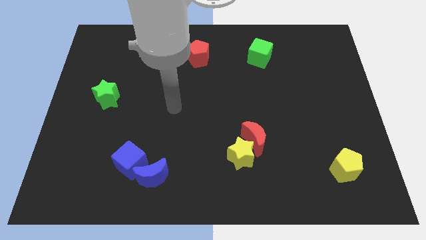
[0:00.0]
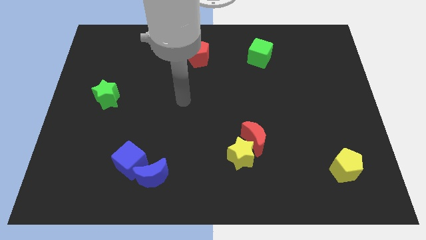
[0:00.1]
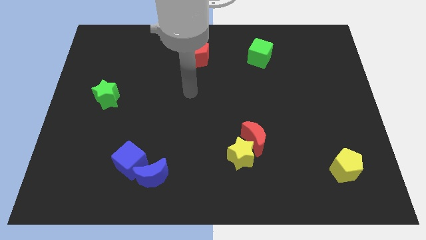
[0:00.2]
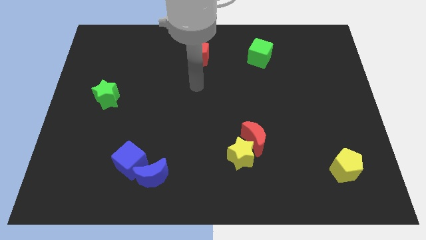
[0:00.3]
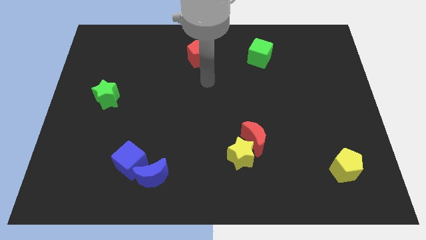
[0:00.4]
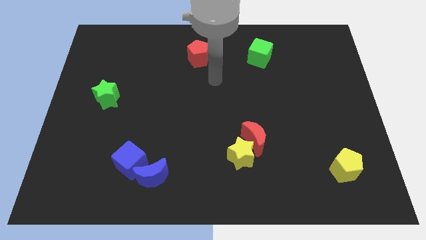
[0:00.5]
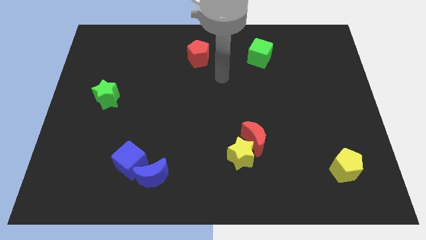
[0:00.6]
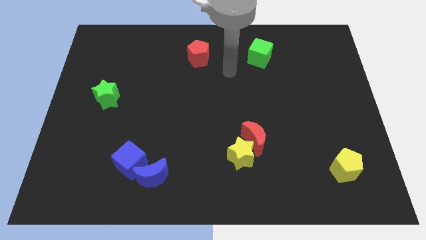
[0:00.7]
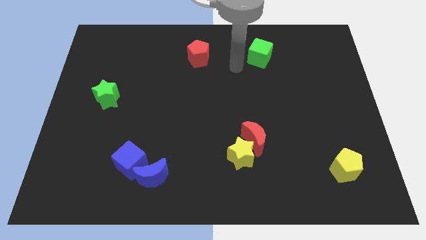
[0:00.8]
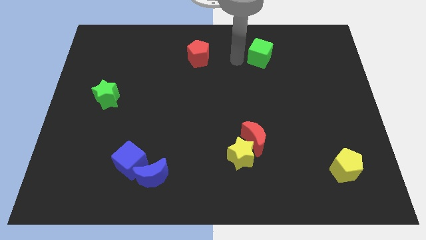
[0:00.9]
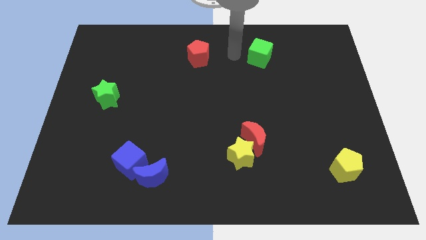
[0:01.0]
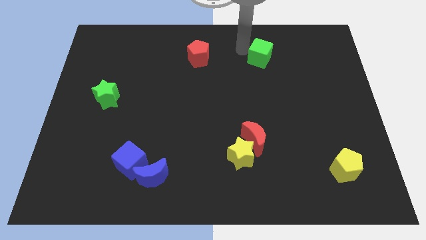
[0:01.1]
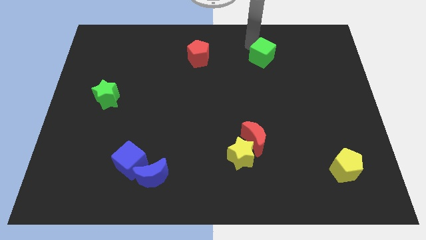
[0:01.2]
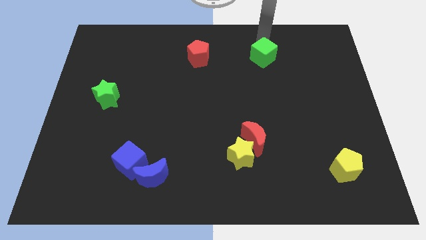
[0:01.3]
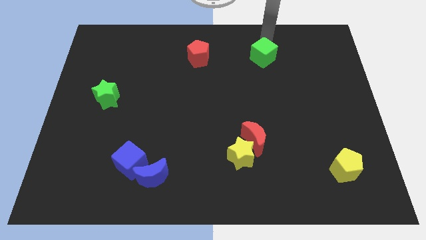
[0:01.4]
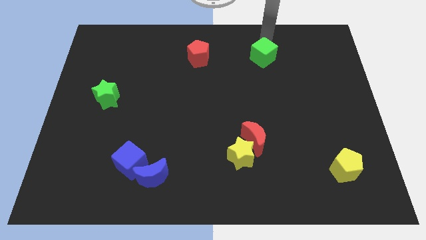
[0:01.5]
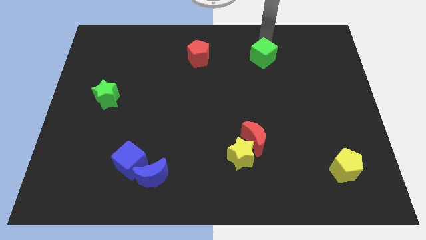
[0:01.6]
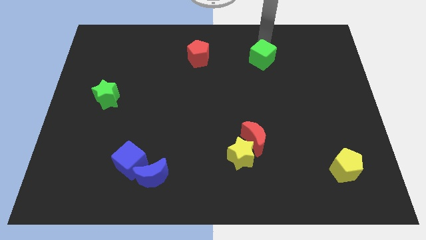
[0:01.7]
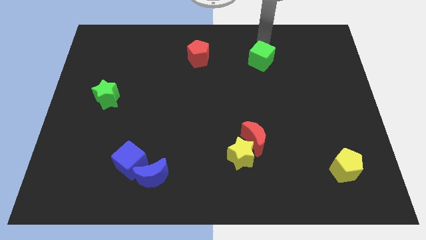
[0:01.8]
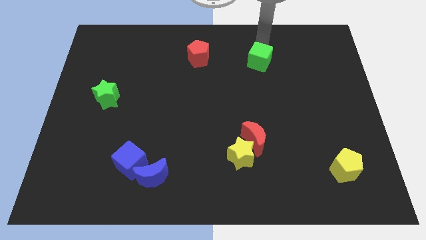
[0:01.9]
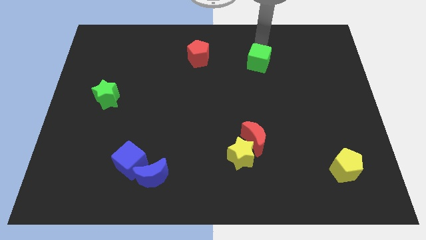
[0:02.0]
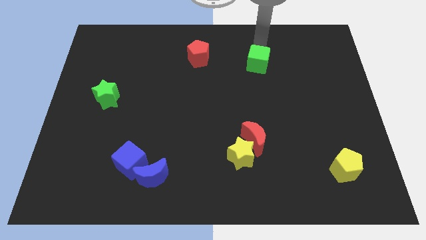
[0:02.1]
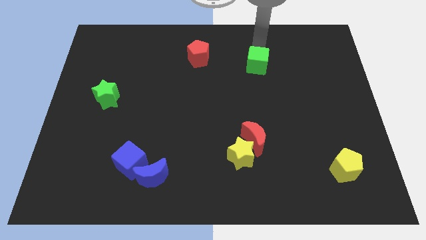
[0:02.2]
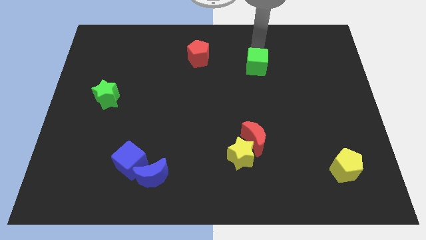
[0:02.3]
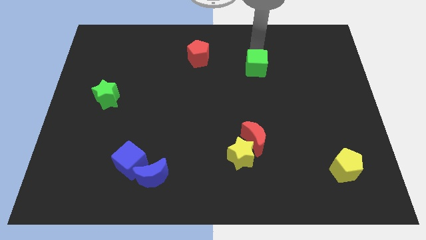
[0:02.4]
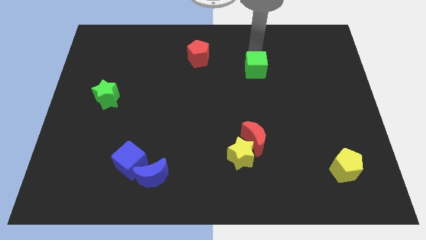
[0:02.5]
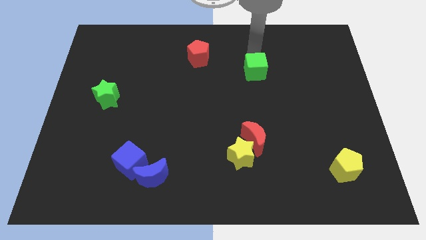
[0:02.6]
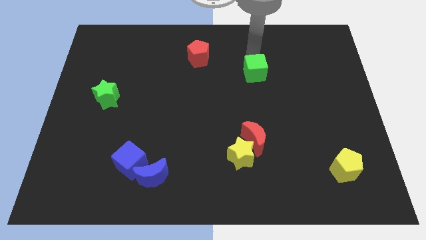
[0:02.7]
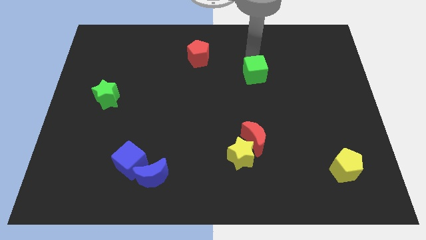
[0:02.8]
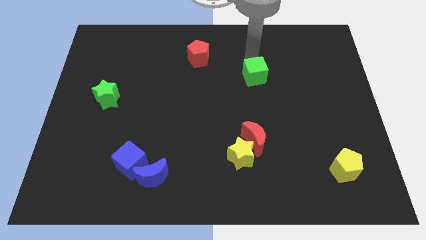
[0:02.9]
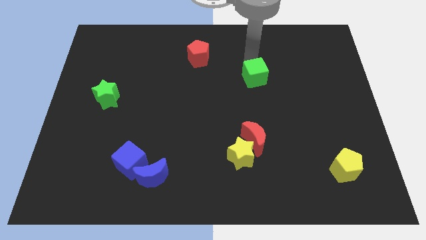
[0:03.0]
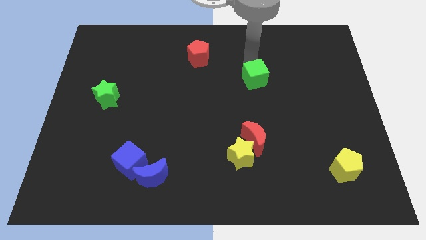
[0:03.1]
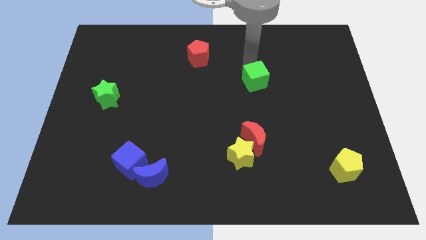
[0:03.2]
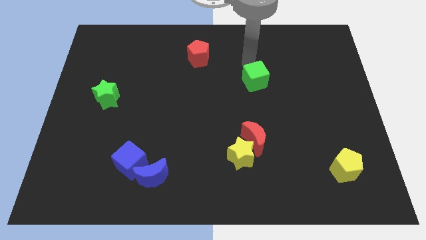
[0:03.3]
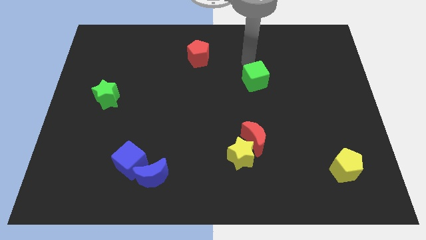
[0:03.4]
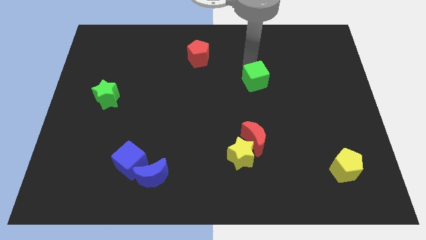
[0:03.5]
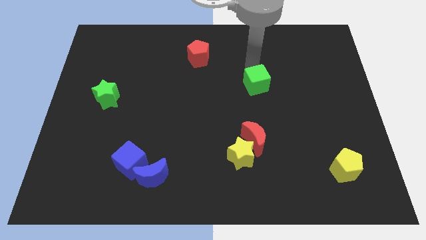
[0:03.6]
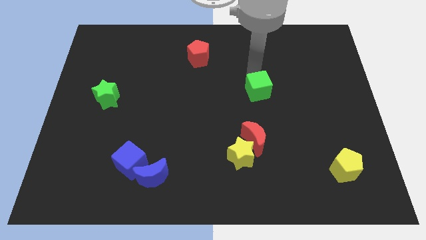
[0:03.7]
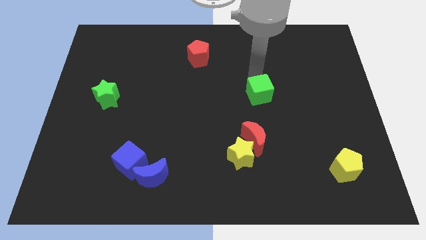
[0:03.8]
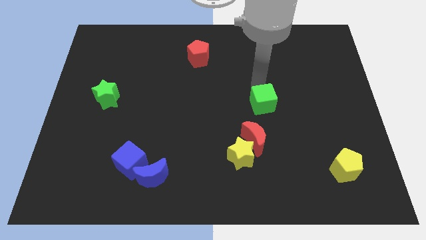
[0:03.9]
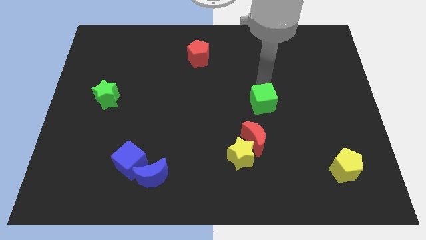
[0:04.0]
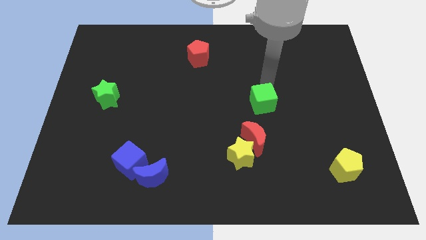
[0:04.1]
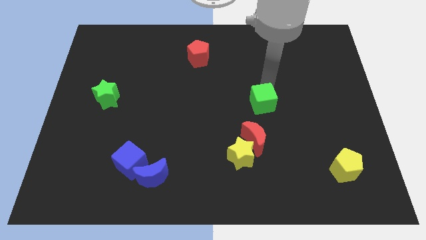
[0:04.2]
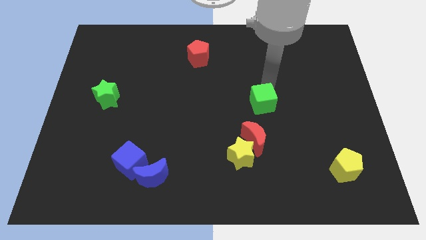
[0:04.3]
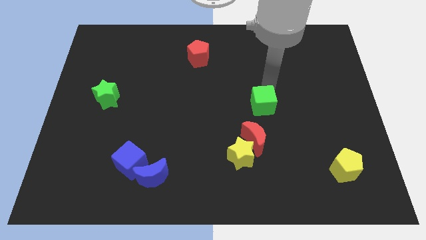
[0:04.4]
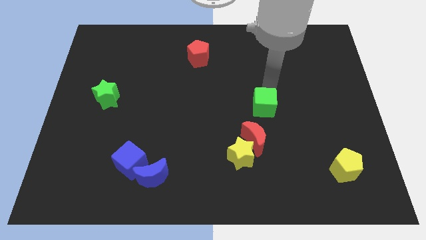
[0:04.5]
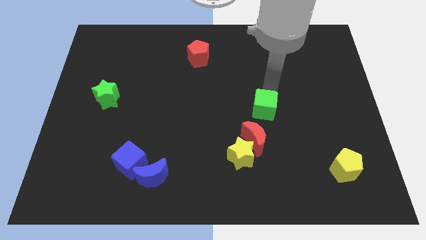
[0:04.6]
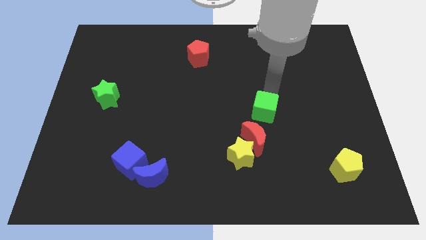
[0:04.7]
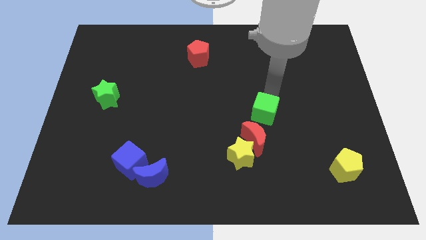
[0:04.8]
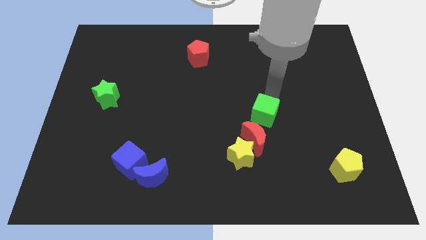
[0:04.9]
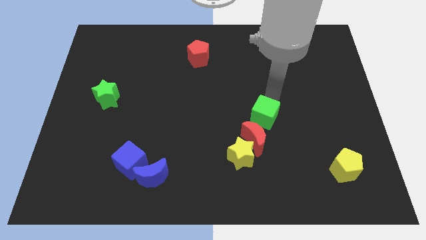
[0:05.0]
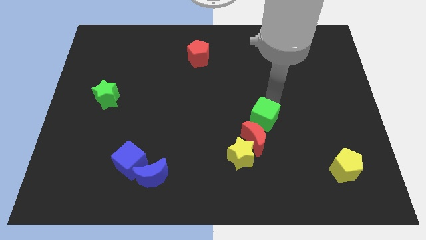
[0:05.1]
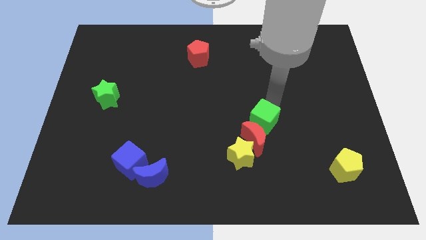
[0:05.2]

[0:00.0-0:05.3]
put the green cube to the red moon

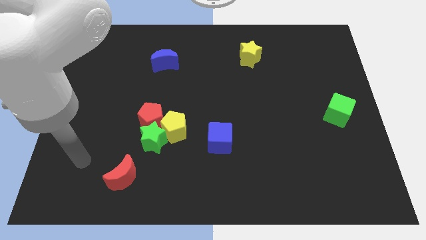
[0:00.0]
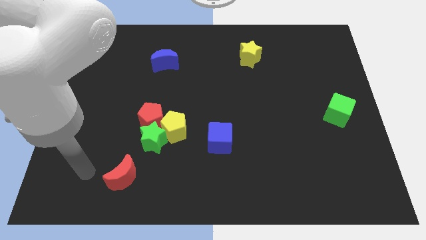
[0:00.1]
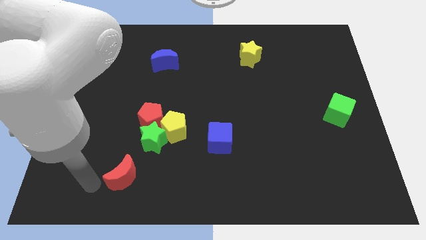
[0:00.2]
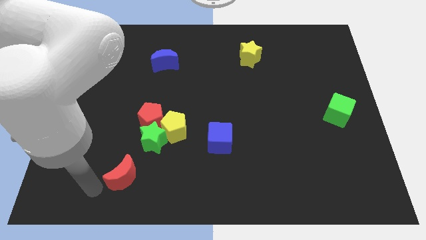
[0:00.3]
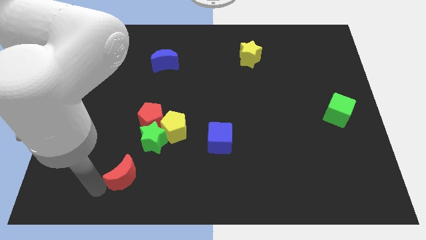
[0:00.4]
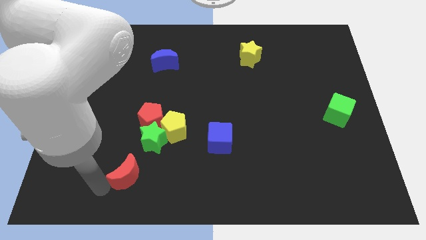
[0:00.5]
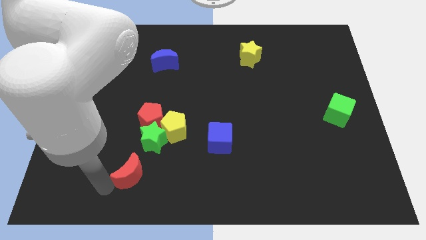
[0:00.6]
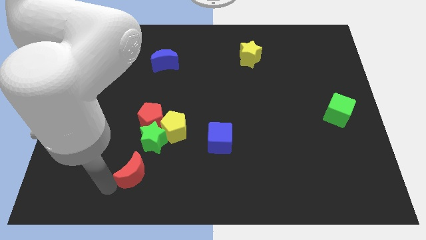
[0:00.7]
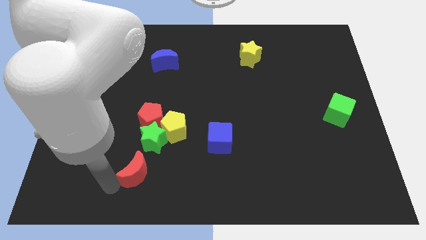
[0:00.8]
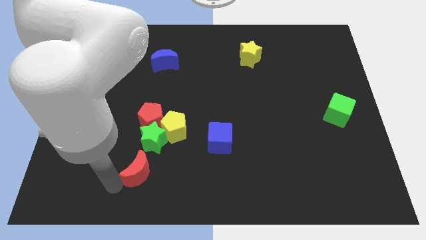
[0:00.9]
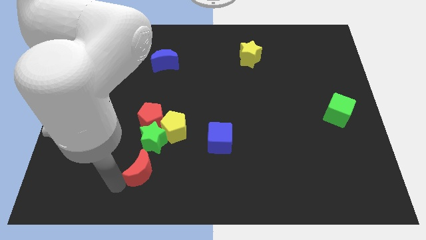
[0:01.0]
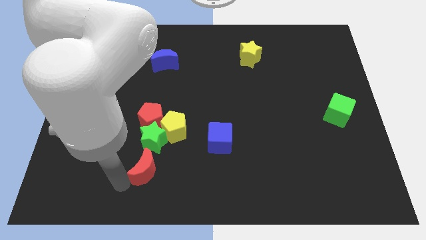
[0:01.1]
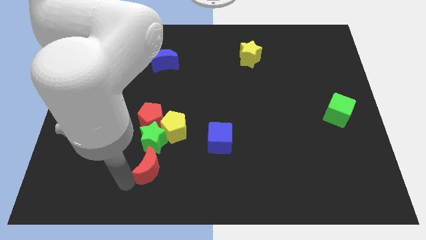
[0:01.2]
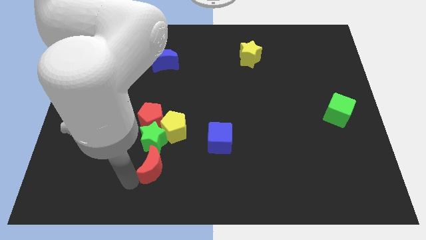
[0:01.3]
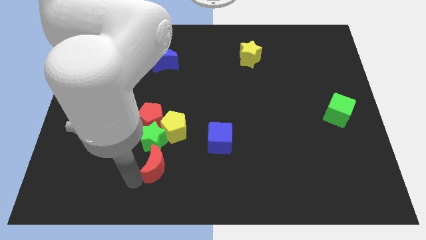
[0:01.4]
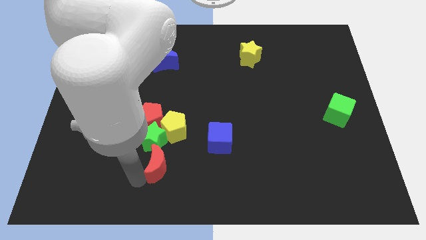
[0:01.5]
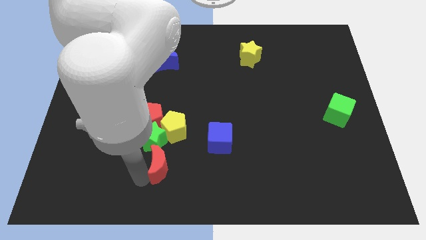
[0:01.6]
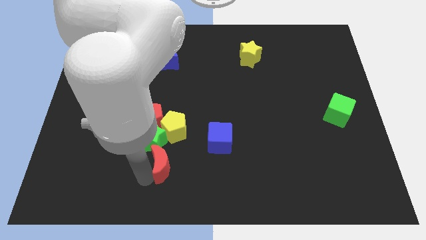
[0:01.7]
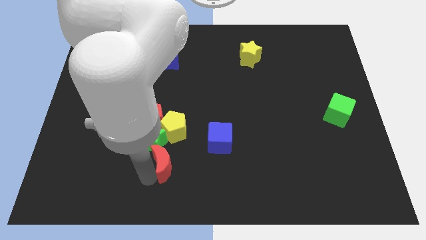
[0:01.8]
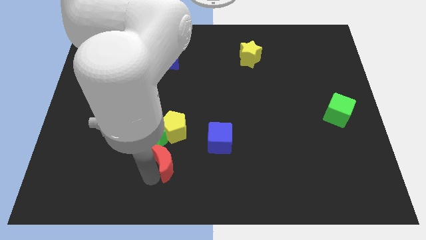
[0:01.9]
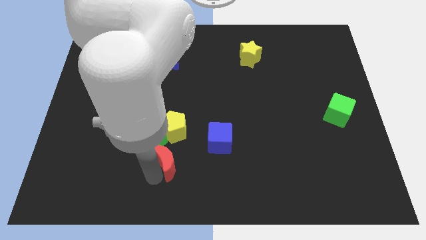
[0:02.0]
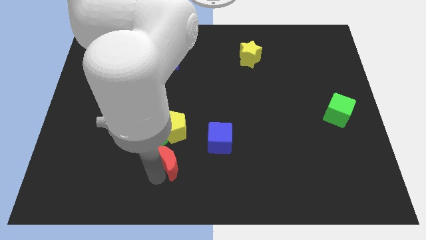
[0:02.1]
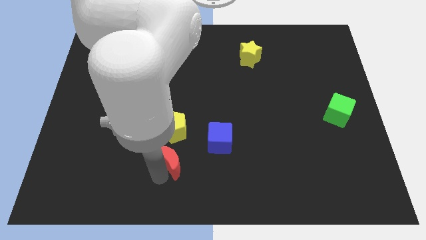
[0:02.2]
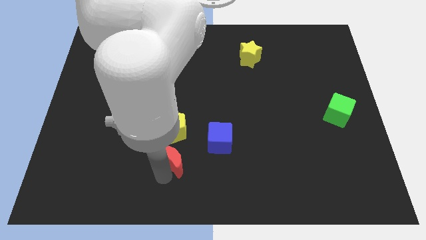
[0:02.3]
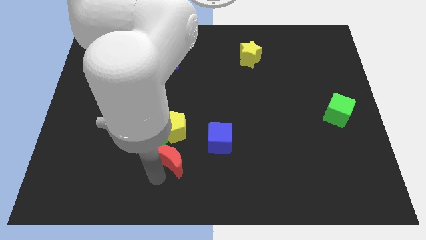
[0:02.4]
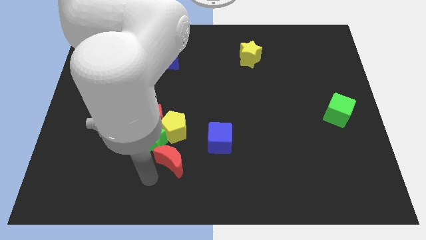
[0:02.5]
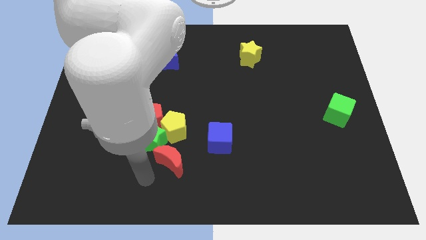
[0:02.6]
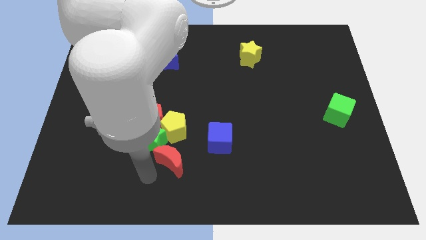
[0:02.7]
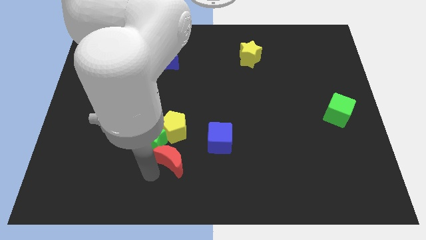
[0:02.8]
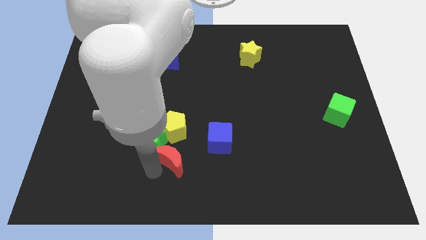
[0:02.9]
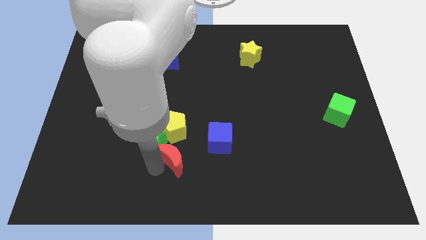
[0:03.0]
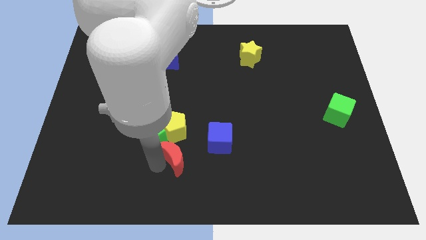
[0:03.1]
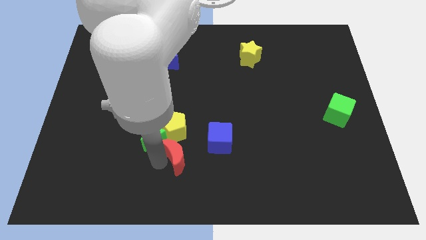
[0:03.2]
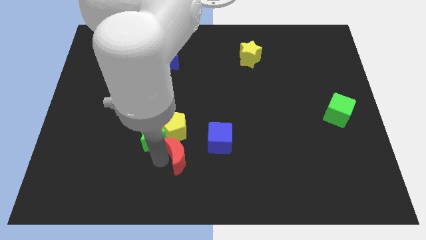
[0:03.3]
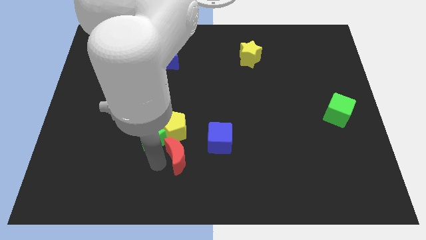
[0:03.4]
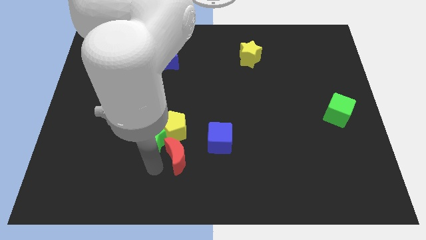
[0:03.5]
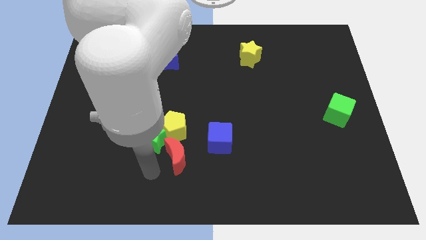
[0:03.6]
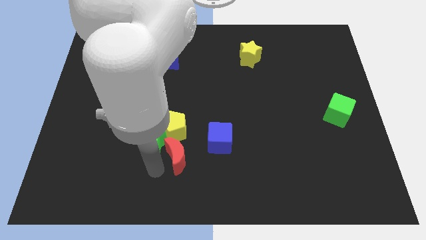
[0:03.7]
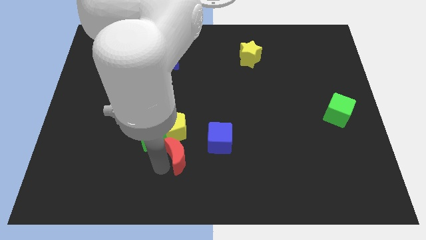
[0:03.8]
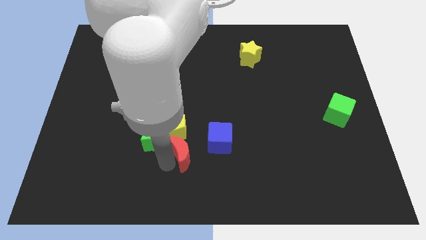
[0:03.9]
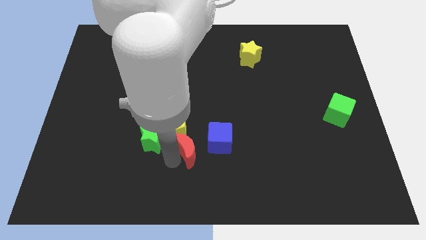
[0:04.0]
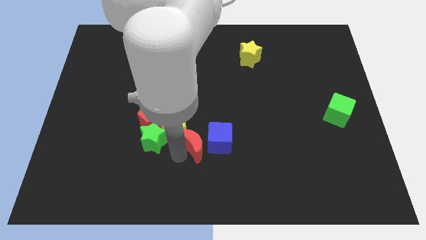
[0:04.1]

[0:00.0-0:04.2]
push the red moon next to the blue cube
